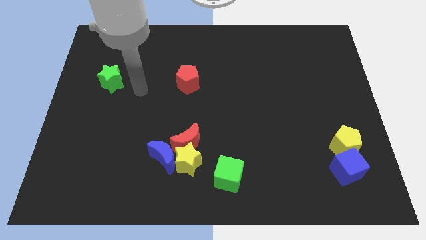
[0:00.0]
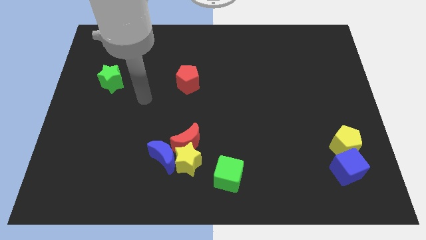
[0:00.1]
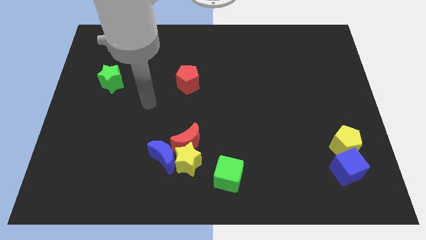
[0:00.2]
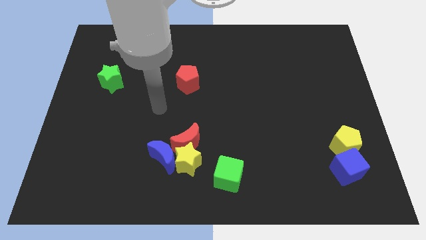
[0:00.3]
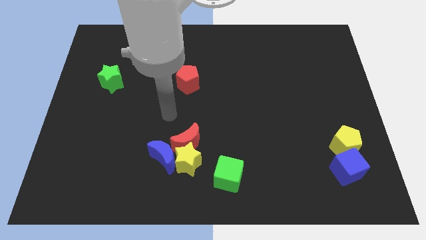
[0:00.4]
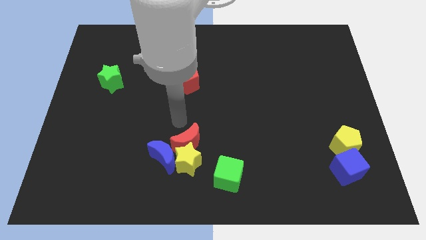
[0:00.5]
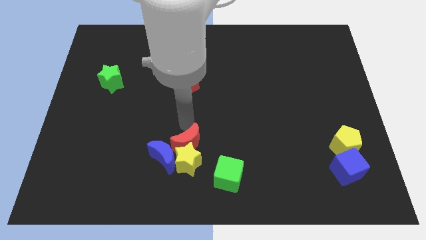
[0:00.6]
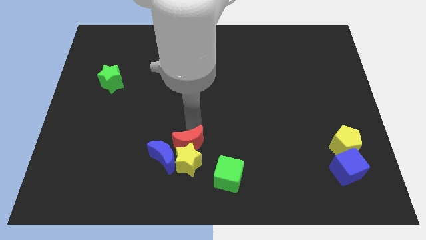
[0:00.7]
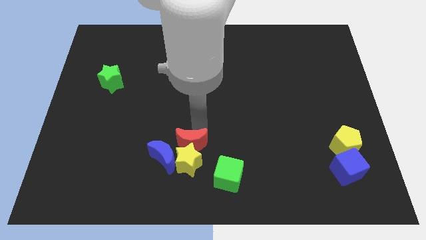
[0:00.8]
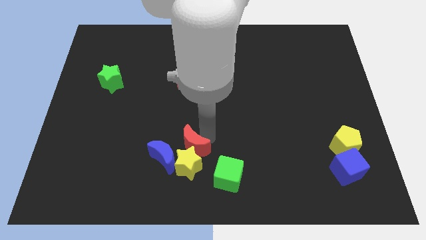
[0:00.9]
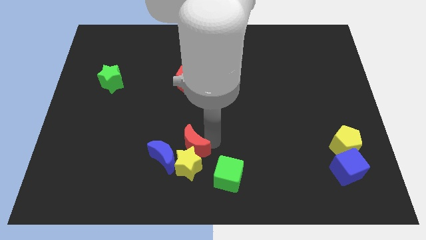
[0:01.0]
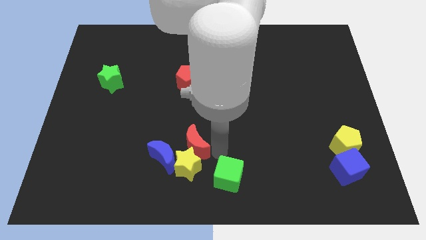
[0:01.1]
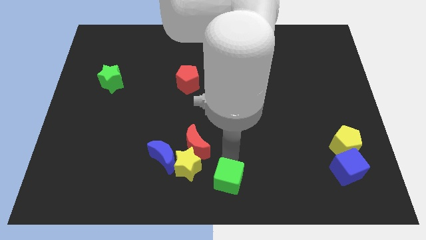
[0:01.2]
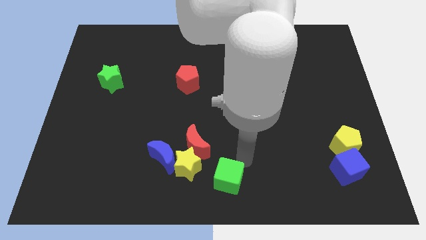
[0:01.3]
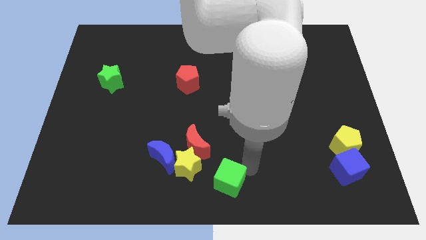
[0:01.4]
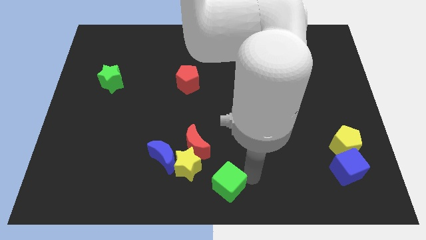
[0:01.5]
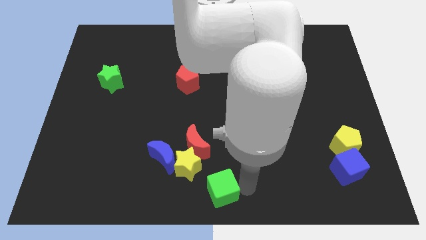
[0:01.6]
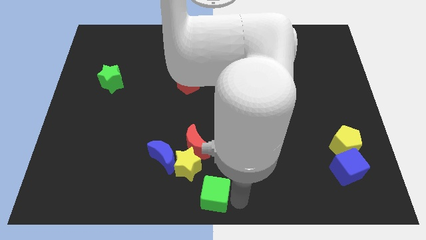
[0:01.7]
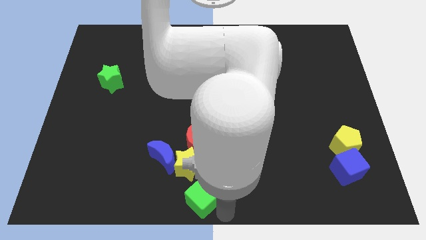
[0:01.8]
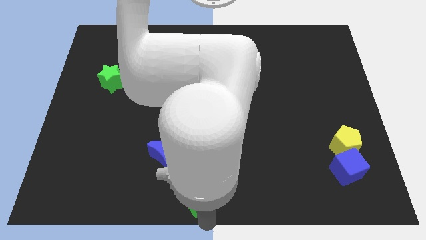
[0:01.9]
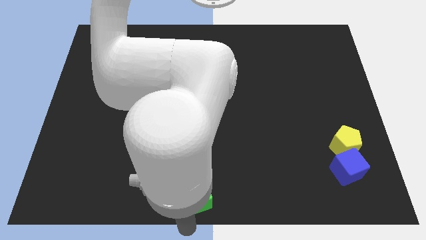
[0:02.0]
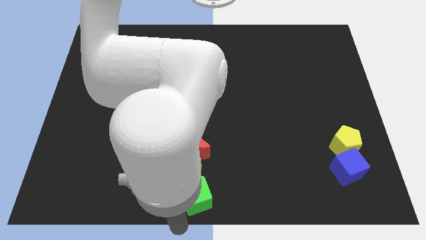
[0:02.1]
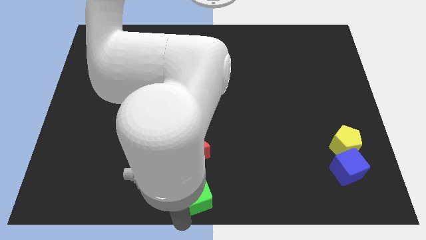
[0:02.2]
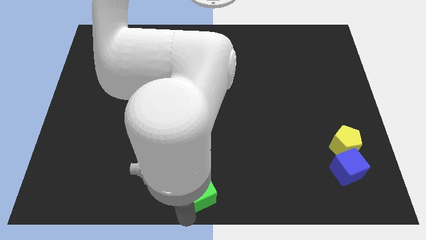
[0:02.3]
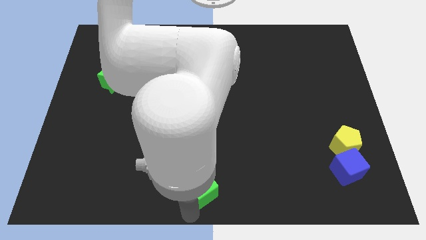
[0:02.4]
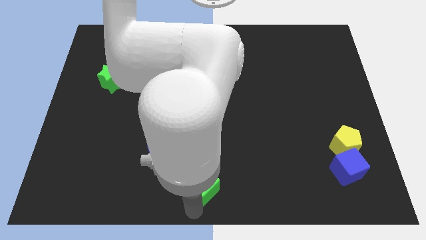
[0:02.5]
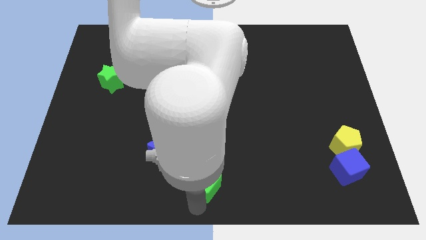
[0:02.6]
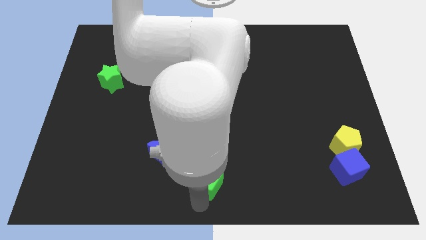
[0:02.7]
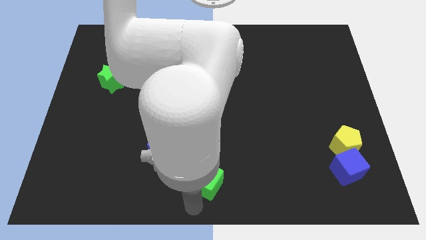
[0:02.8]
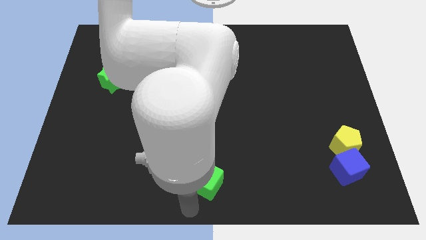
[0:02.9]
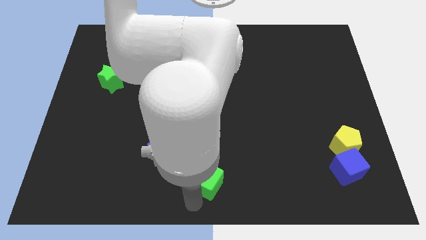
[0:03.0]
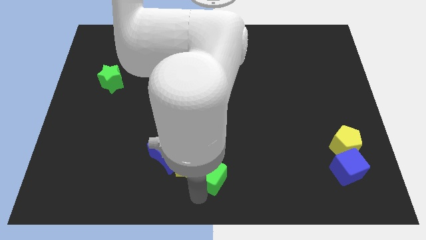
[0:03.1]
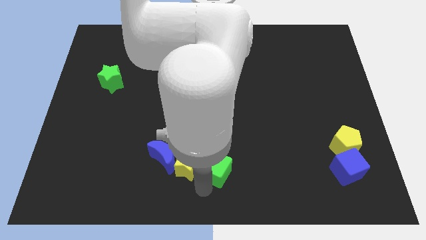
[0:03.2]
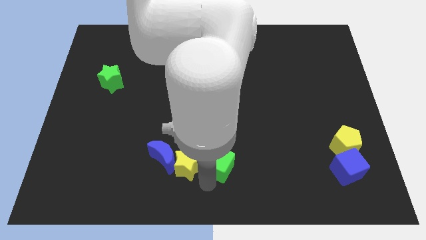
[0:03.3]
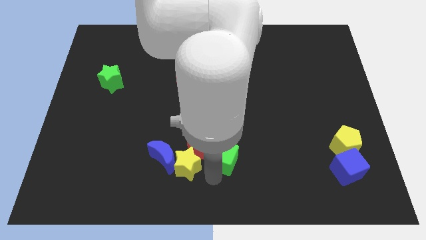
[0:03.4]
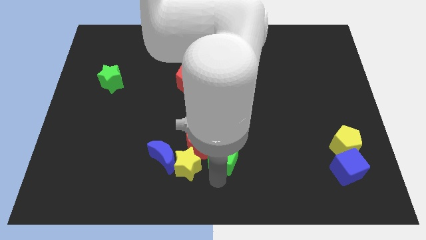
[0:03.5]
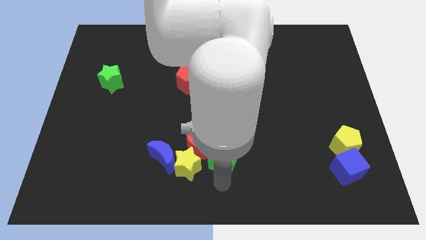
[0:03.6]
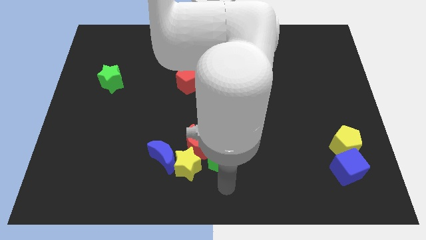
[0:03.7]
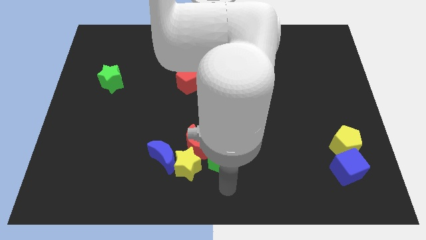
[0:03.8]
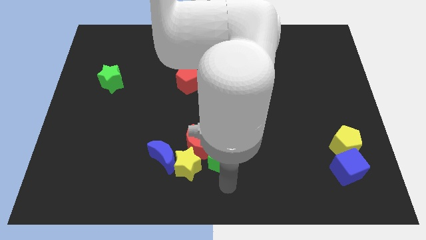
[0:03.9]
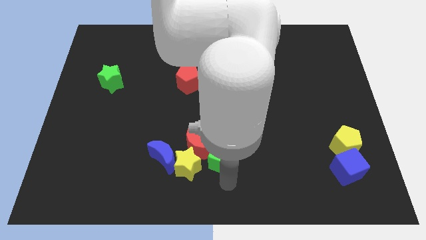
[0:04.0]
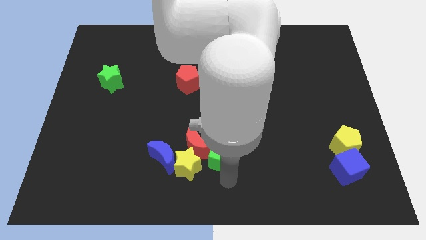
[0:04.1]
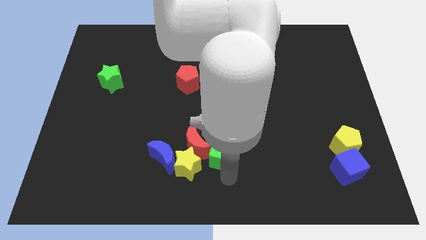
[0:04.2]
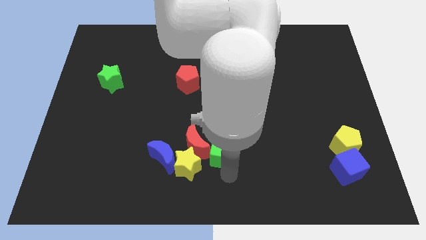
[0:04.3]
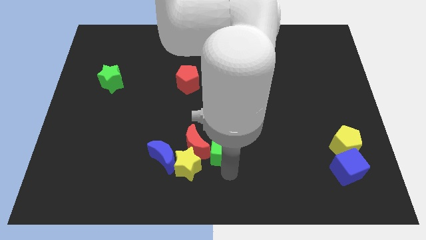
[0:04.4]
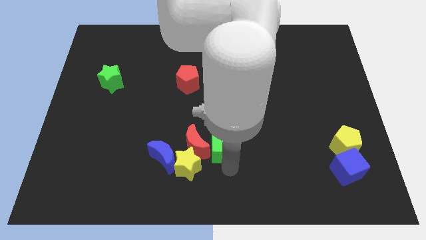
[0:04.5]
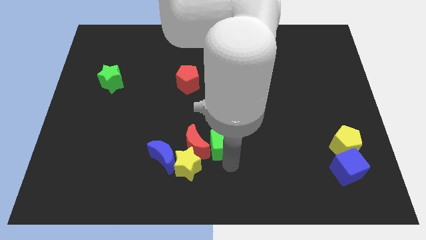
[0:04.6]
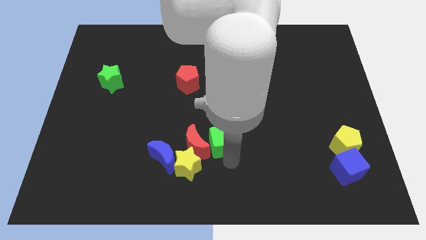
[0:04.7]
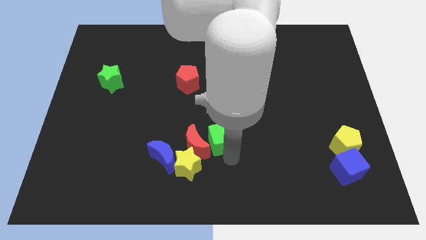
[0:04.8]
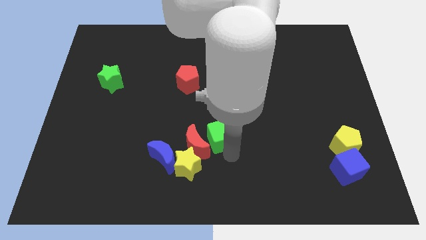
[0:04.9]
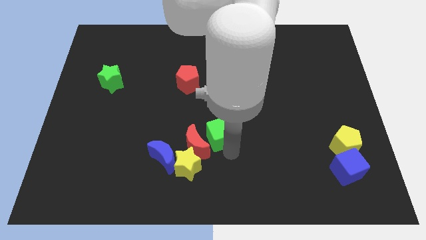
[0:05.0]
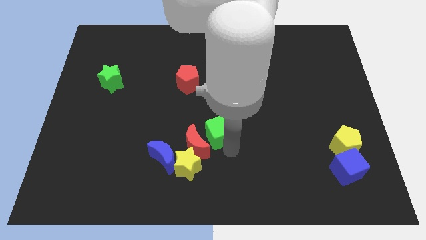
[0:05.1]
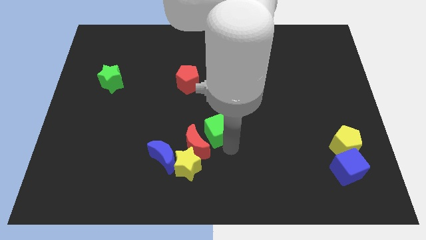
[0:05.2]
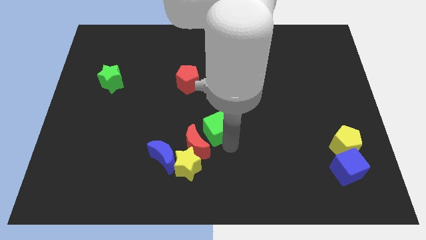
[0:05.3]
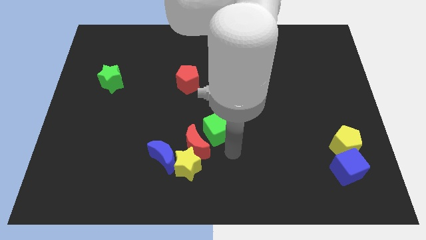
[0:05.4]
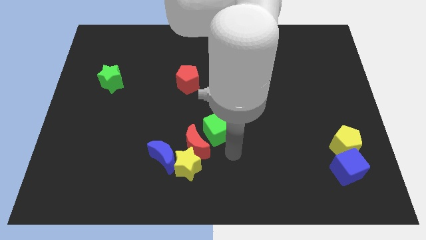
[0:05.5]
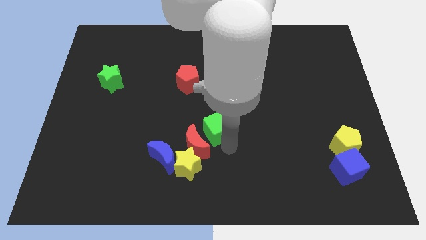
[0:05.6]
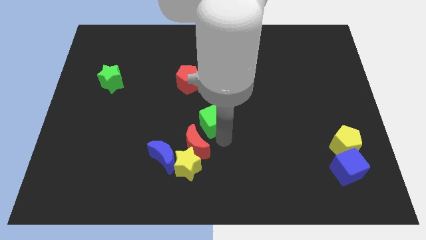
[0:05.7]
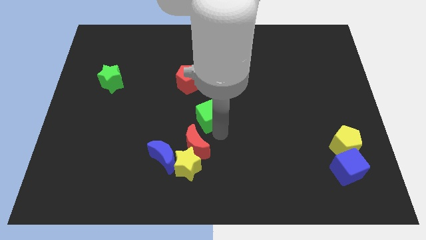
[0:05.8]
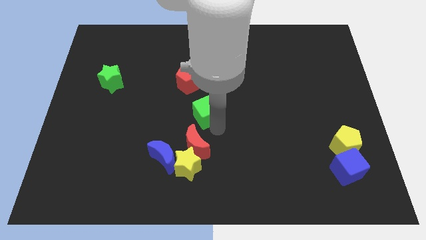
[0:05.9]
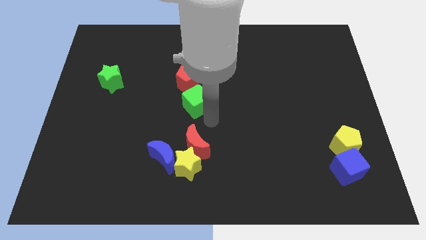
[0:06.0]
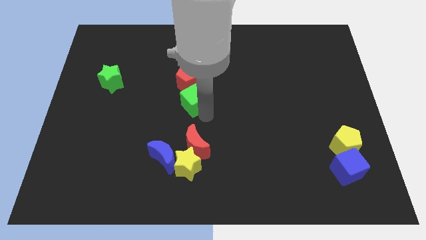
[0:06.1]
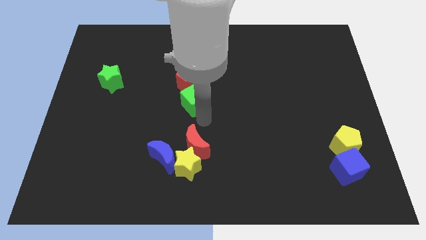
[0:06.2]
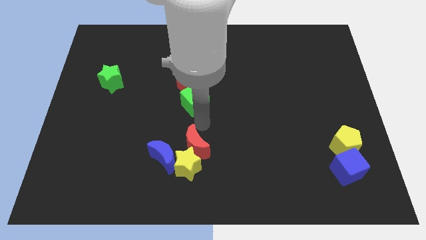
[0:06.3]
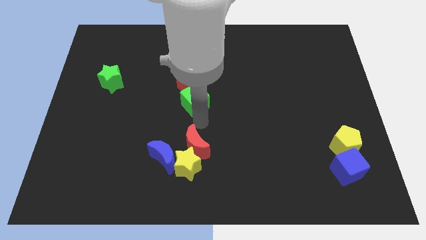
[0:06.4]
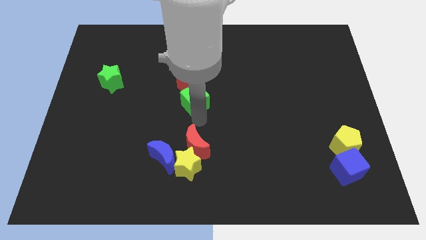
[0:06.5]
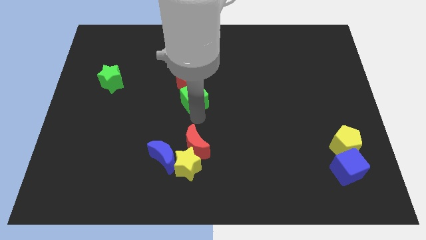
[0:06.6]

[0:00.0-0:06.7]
slide the green cube towards the red pentagon

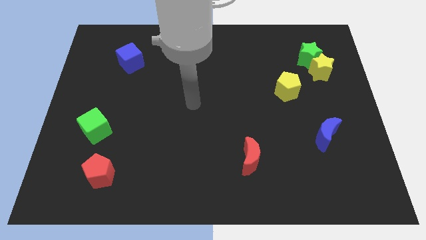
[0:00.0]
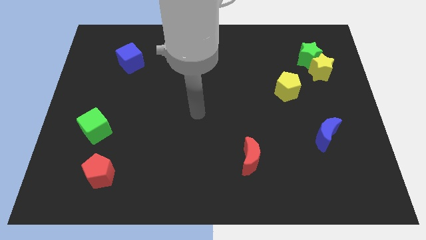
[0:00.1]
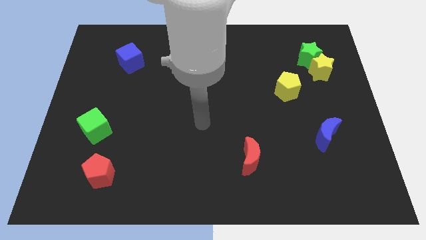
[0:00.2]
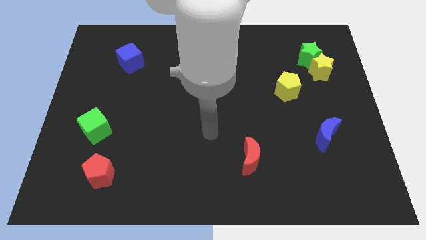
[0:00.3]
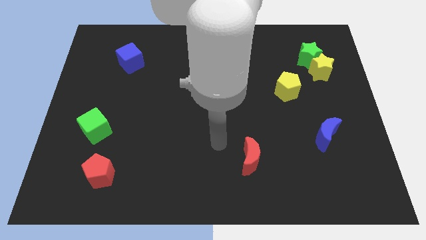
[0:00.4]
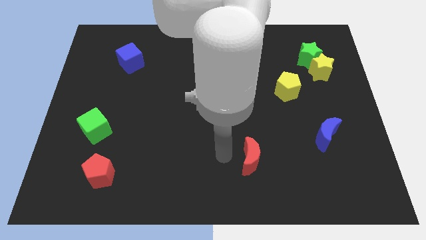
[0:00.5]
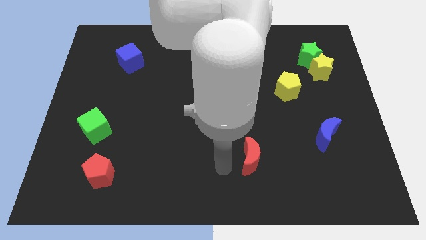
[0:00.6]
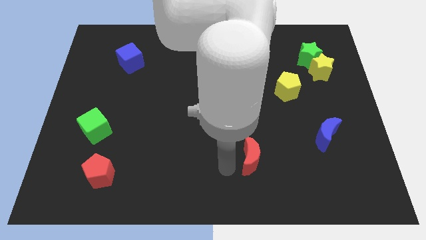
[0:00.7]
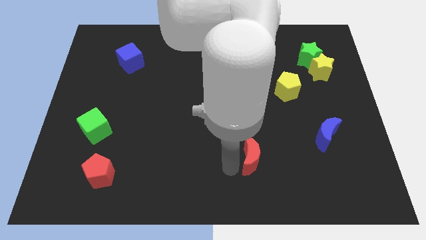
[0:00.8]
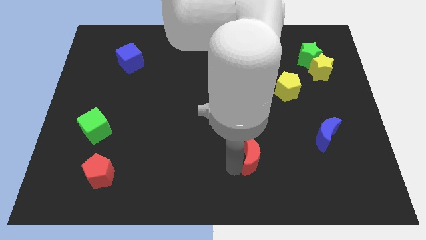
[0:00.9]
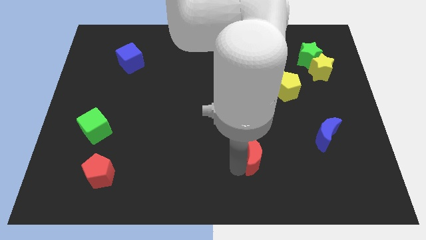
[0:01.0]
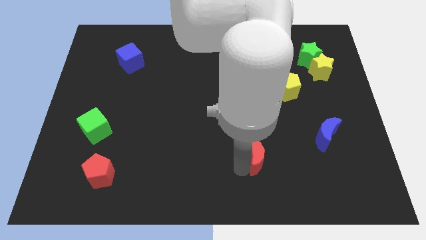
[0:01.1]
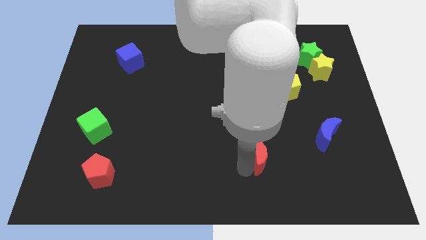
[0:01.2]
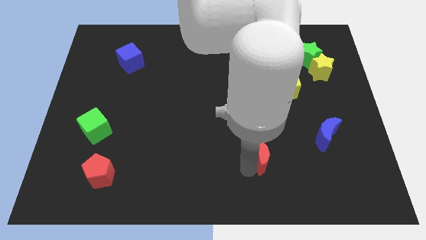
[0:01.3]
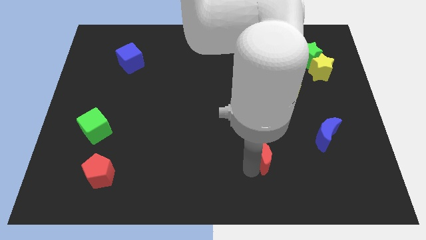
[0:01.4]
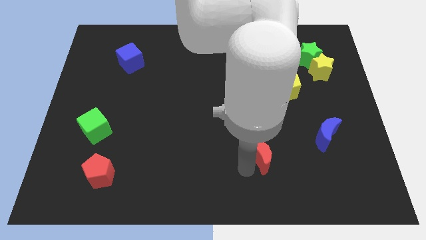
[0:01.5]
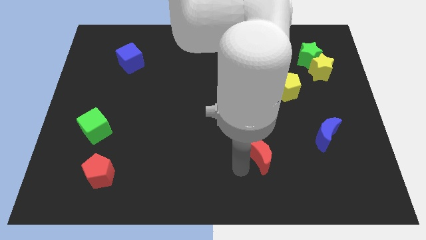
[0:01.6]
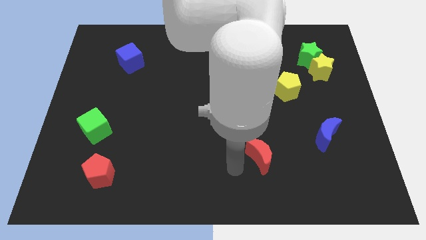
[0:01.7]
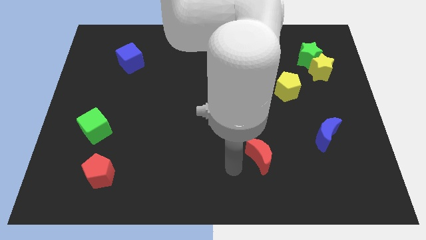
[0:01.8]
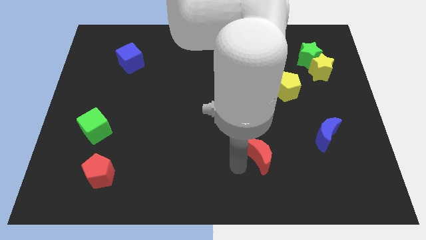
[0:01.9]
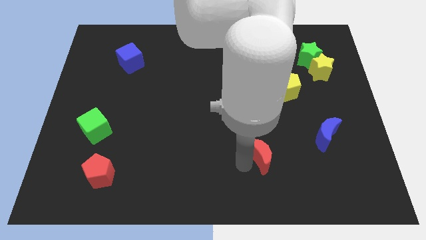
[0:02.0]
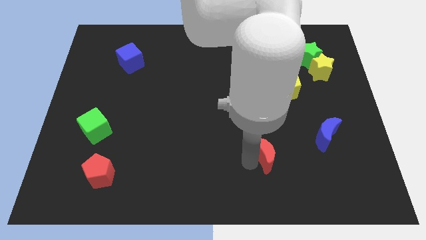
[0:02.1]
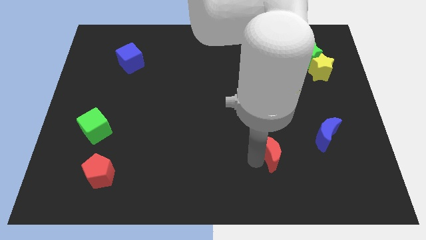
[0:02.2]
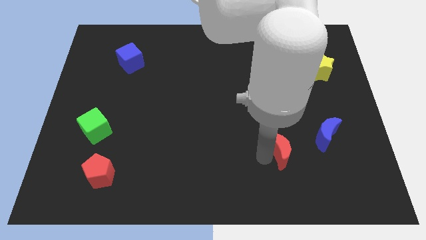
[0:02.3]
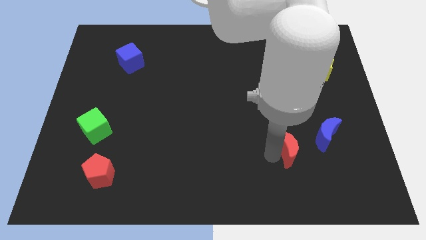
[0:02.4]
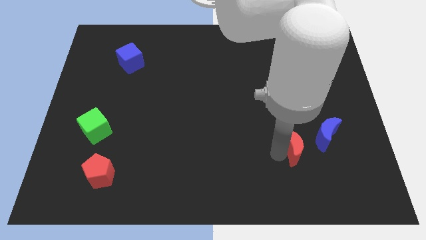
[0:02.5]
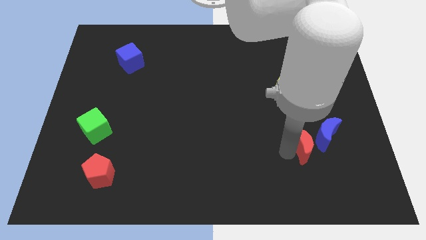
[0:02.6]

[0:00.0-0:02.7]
push the red moon towards the blue moon
